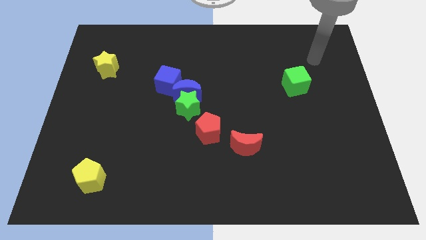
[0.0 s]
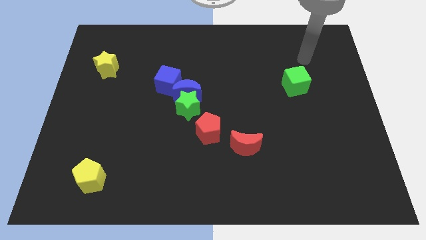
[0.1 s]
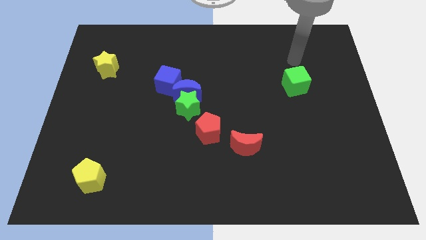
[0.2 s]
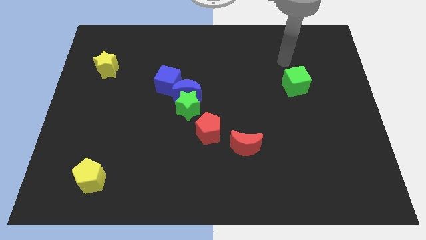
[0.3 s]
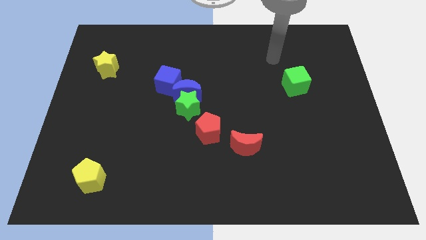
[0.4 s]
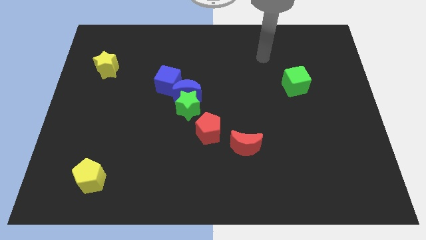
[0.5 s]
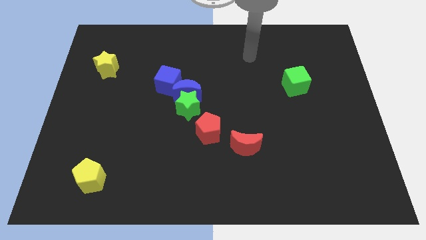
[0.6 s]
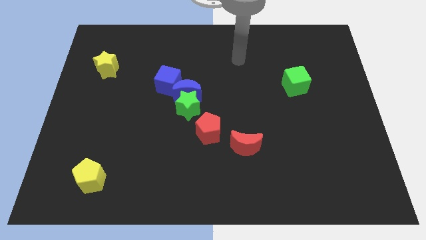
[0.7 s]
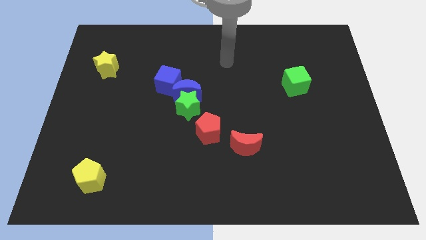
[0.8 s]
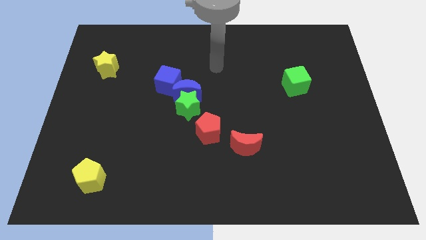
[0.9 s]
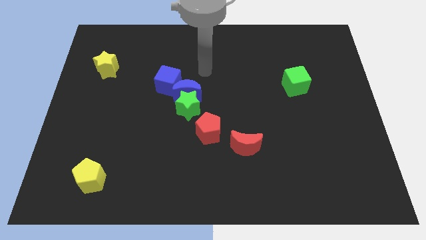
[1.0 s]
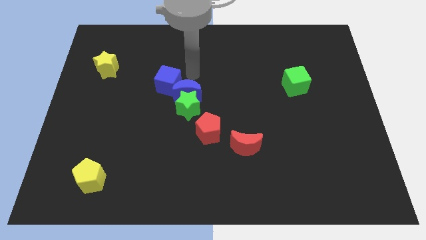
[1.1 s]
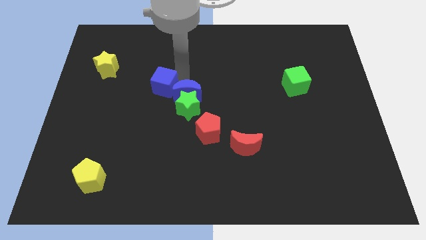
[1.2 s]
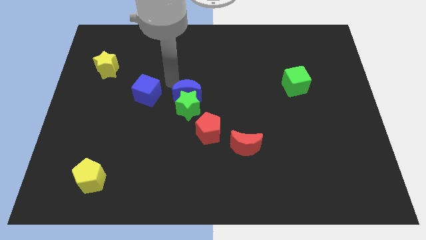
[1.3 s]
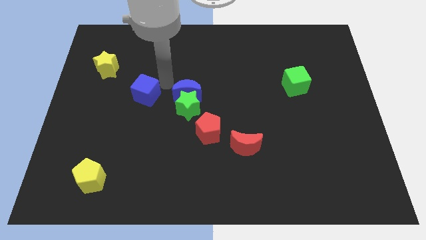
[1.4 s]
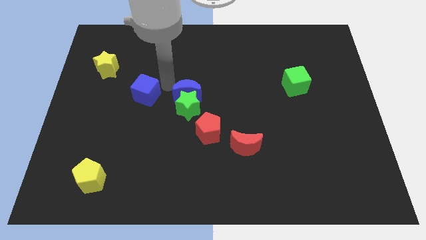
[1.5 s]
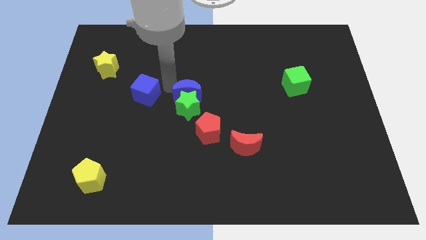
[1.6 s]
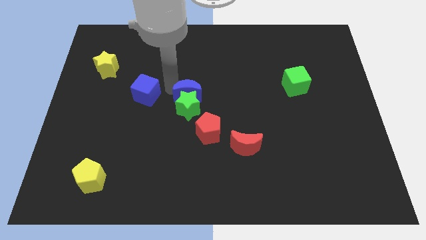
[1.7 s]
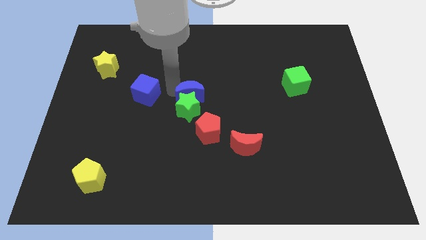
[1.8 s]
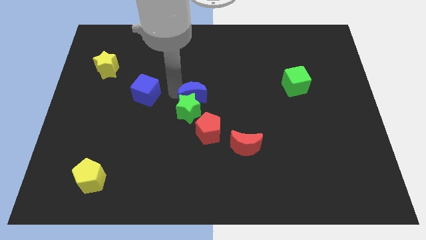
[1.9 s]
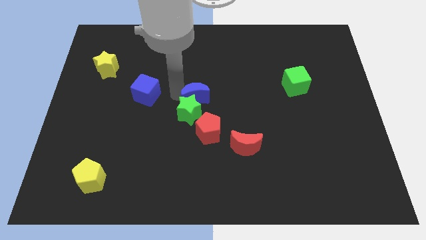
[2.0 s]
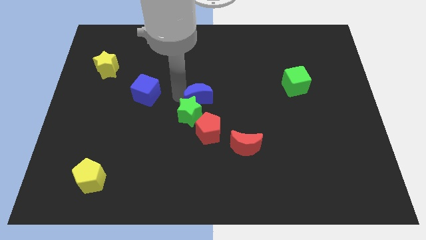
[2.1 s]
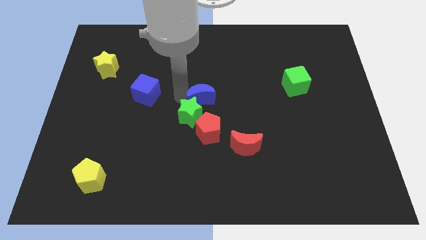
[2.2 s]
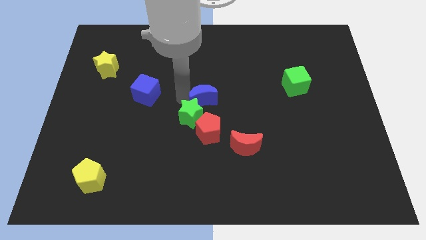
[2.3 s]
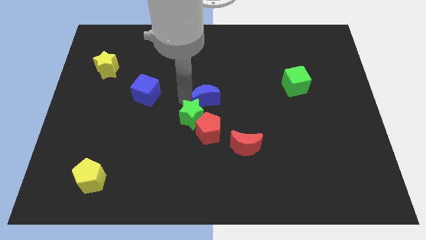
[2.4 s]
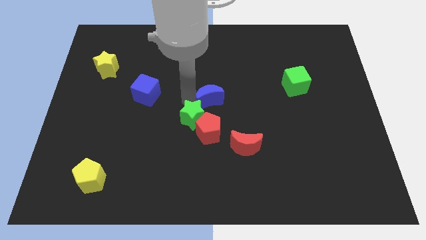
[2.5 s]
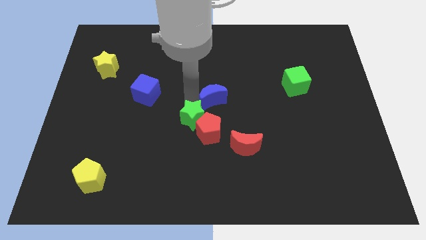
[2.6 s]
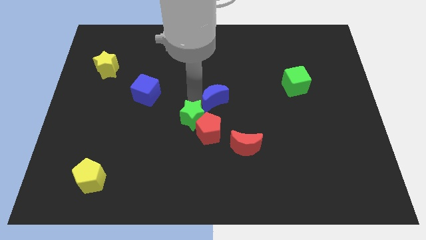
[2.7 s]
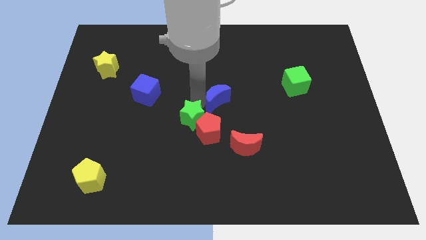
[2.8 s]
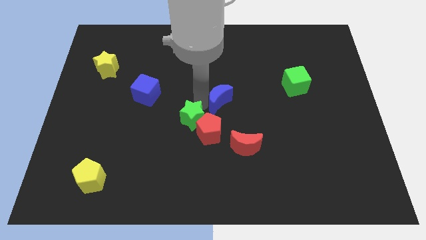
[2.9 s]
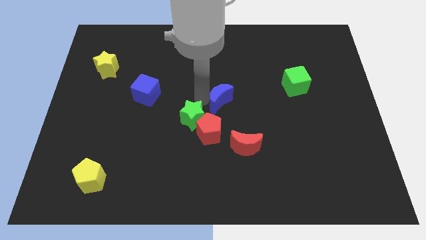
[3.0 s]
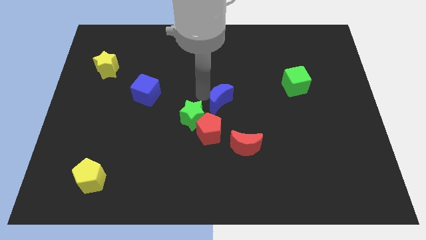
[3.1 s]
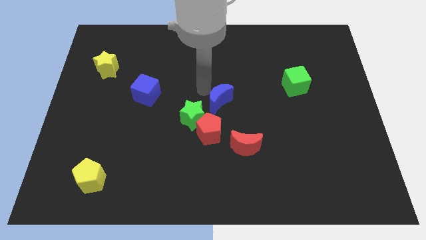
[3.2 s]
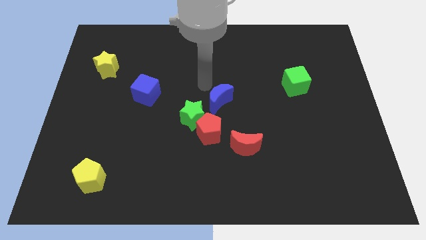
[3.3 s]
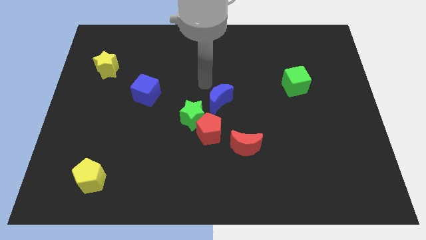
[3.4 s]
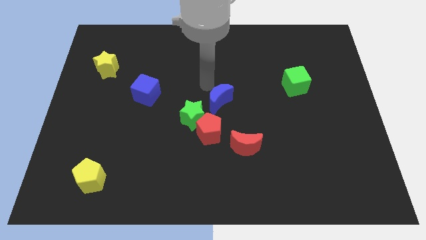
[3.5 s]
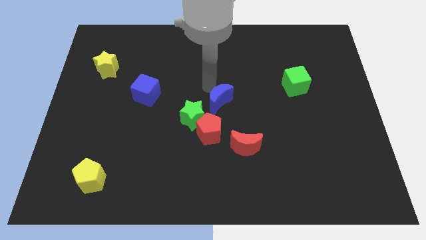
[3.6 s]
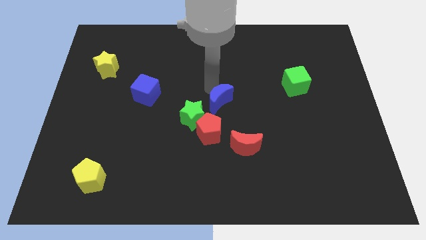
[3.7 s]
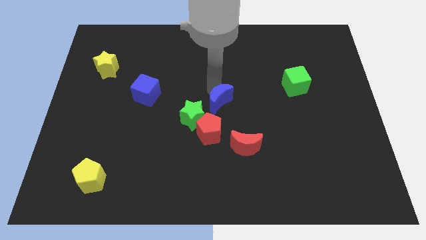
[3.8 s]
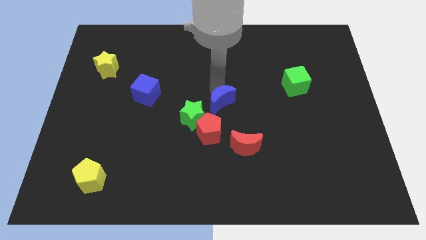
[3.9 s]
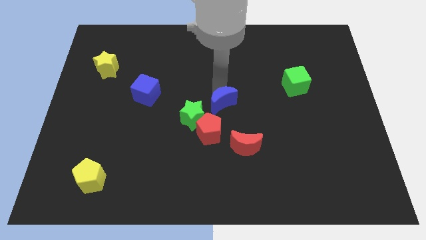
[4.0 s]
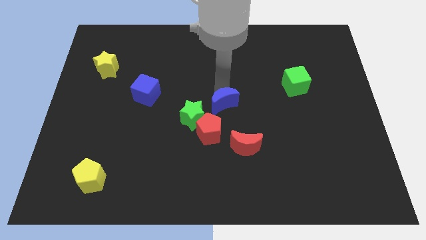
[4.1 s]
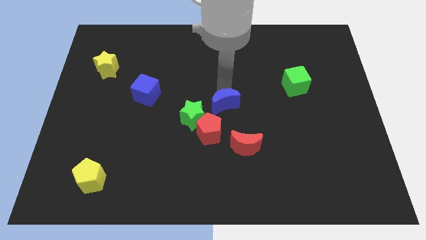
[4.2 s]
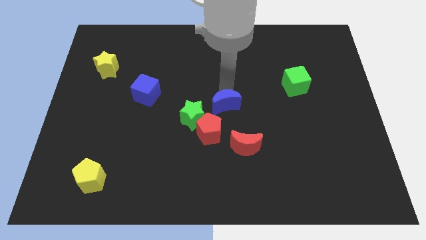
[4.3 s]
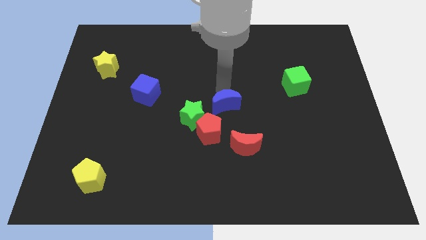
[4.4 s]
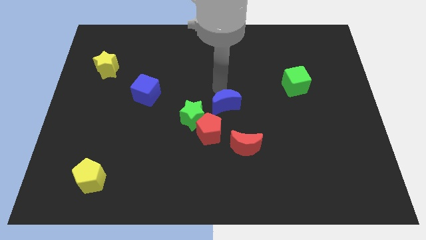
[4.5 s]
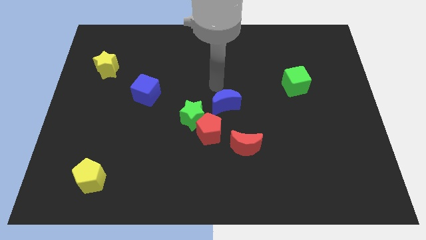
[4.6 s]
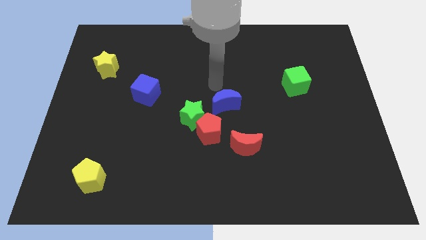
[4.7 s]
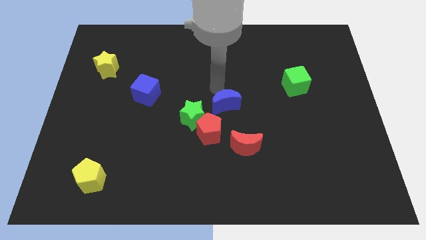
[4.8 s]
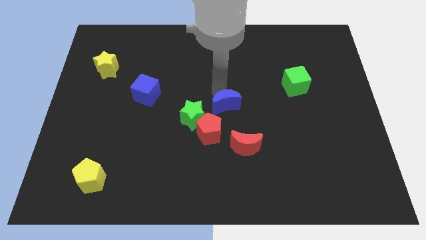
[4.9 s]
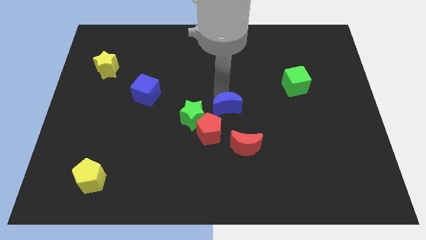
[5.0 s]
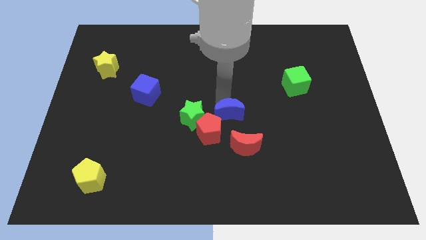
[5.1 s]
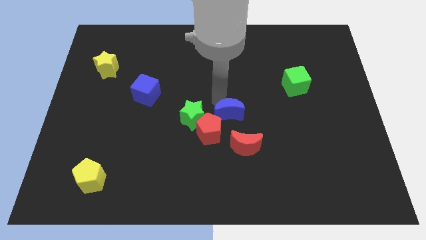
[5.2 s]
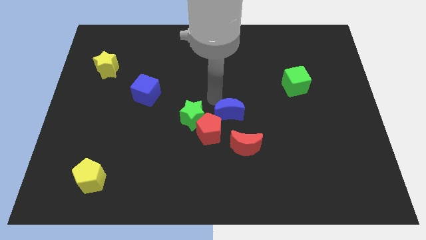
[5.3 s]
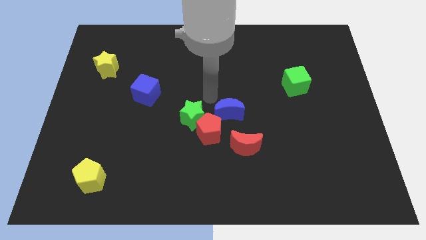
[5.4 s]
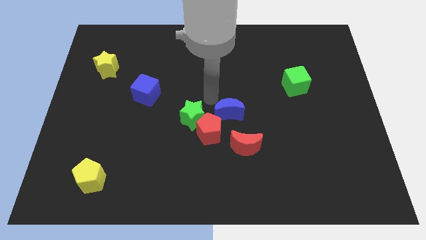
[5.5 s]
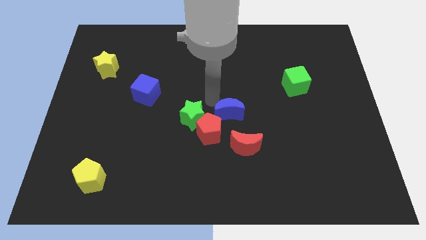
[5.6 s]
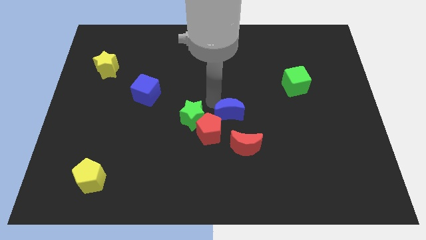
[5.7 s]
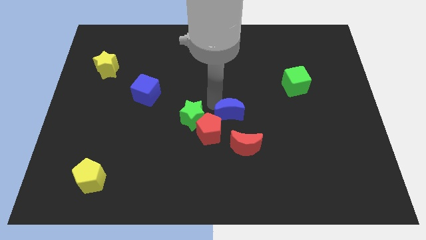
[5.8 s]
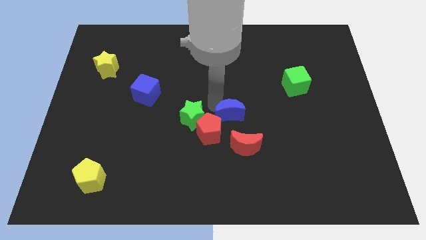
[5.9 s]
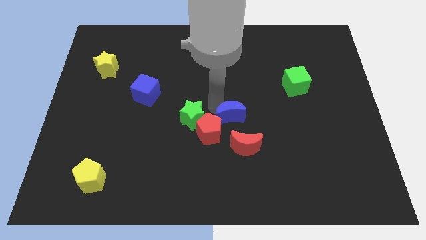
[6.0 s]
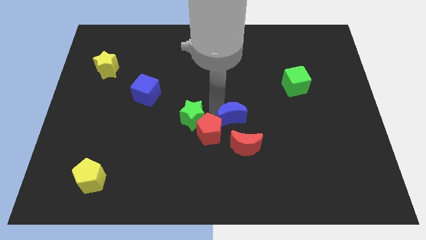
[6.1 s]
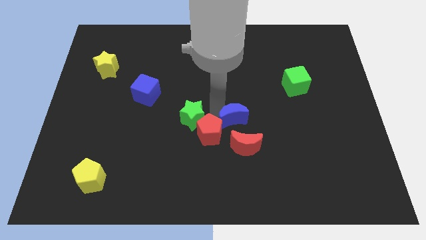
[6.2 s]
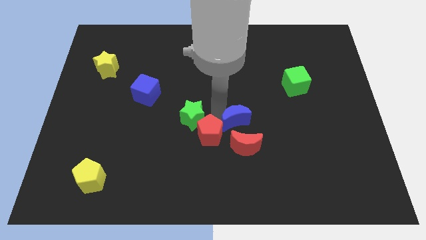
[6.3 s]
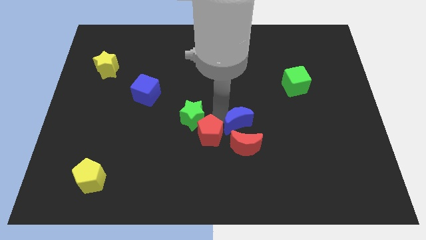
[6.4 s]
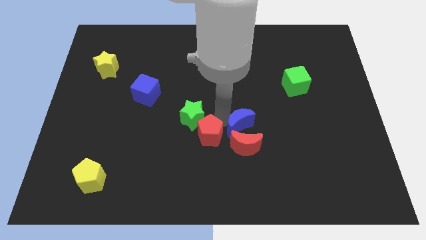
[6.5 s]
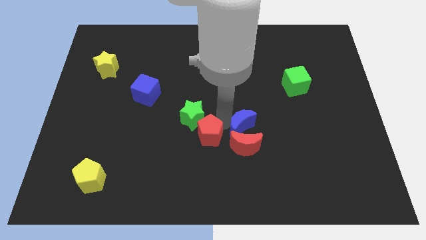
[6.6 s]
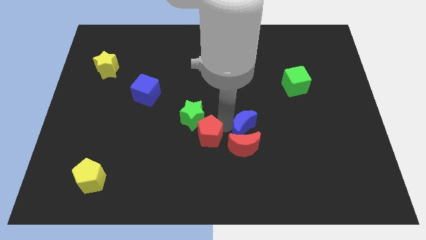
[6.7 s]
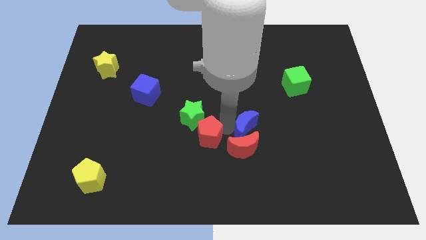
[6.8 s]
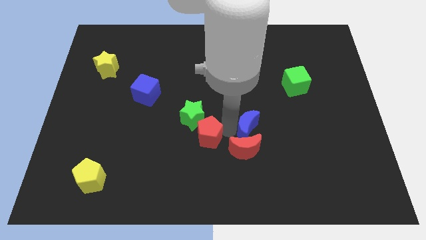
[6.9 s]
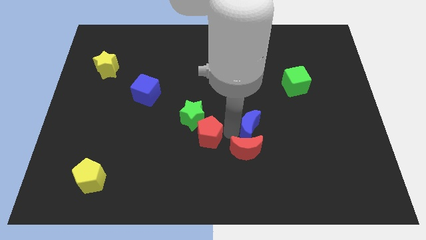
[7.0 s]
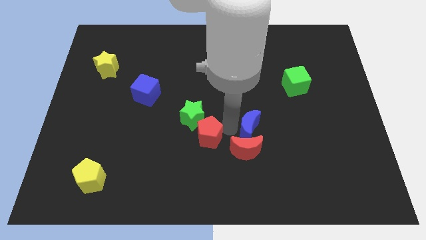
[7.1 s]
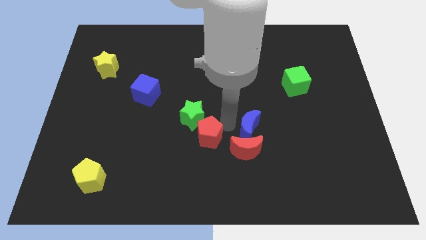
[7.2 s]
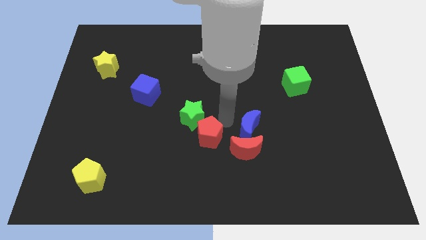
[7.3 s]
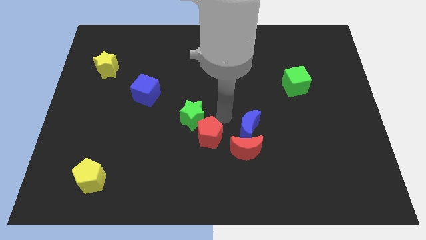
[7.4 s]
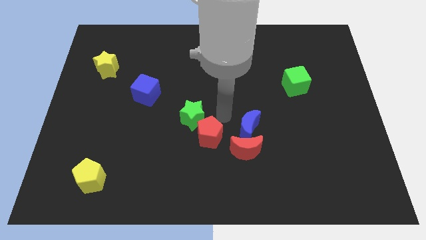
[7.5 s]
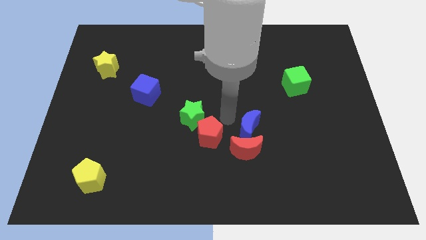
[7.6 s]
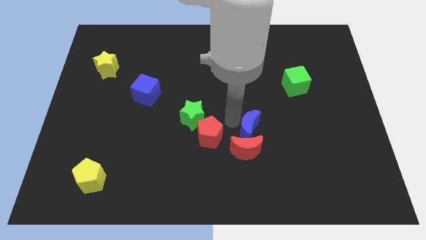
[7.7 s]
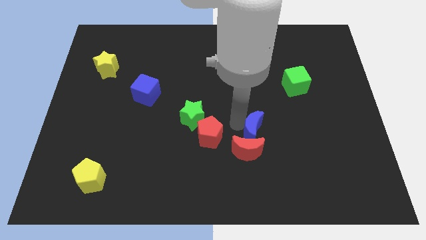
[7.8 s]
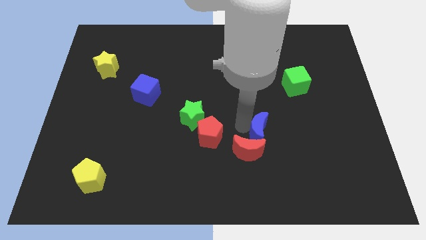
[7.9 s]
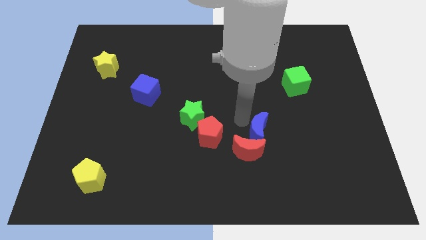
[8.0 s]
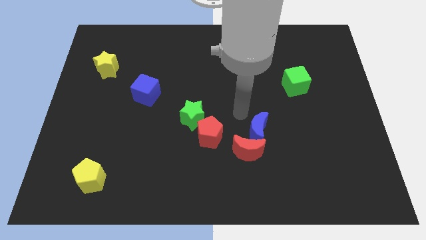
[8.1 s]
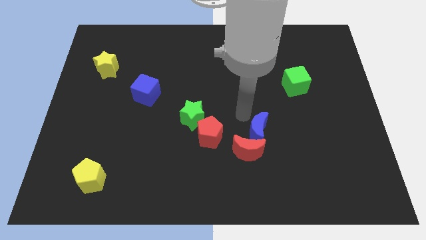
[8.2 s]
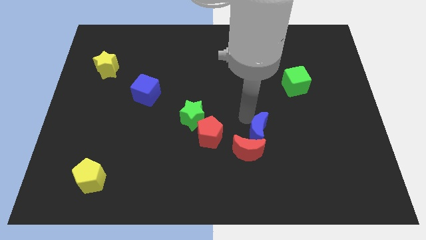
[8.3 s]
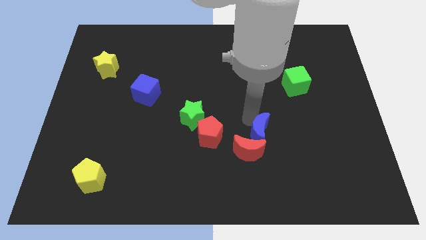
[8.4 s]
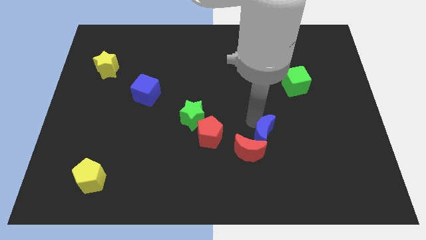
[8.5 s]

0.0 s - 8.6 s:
move the blue moon down and then right
